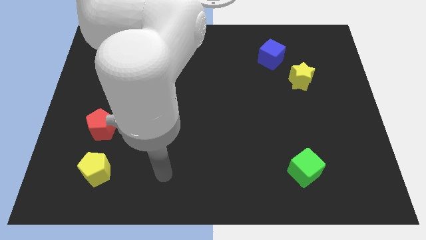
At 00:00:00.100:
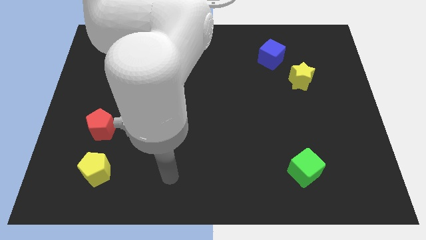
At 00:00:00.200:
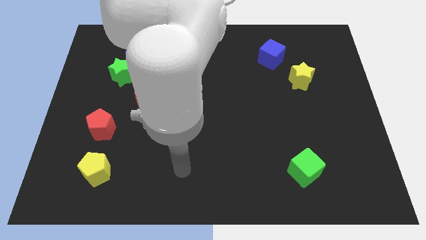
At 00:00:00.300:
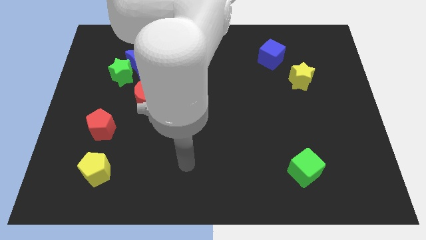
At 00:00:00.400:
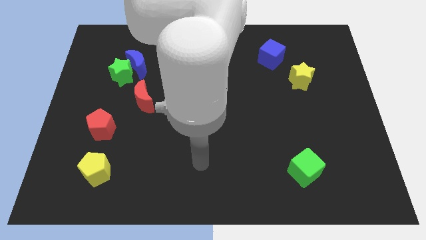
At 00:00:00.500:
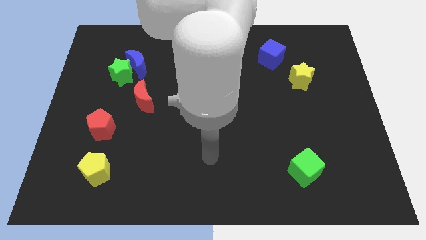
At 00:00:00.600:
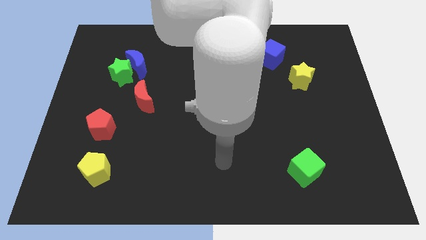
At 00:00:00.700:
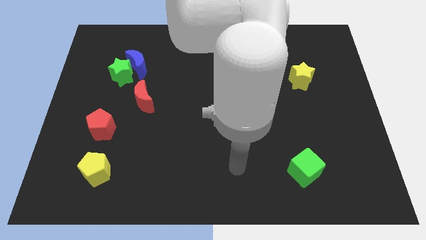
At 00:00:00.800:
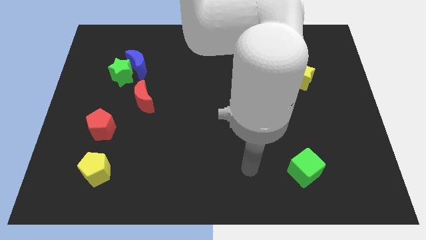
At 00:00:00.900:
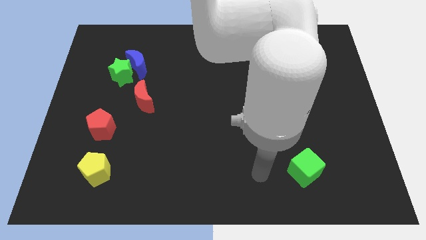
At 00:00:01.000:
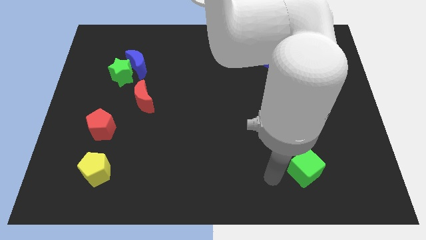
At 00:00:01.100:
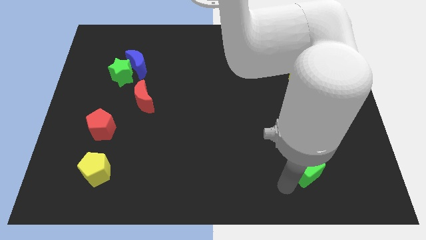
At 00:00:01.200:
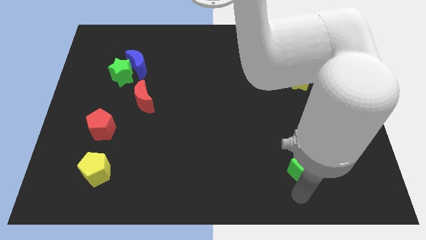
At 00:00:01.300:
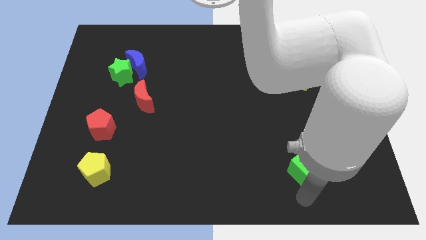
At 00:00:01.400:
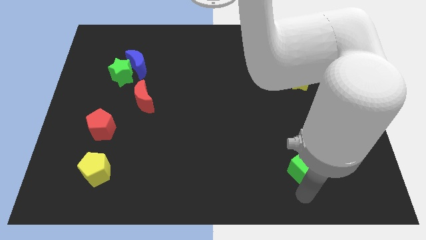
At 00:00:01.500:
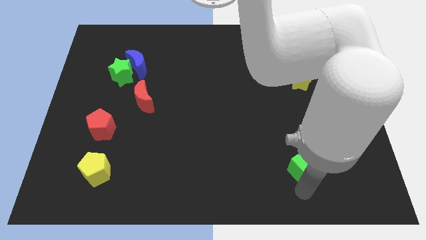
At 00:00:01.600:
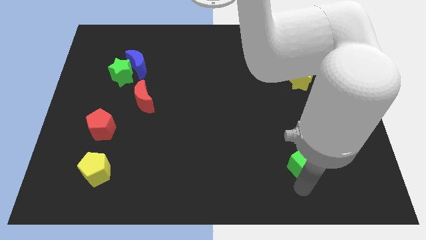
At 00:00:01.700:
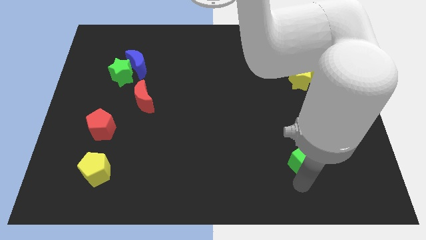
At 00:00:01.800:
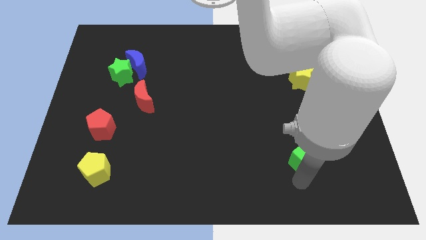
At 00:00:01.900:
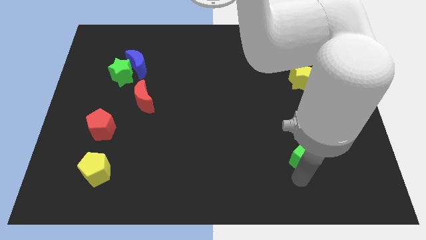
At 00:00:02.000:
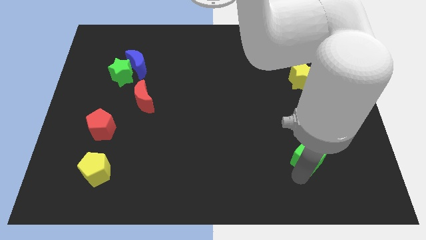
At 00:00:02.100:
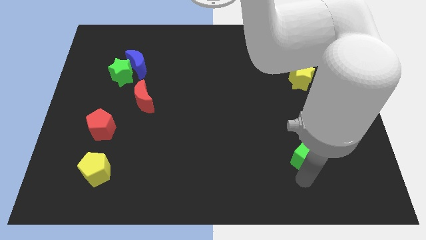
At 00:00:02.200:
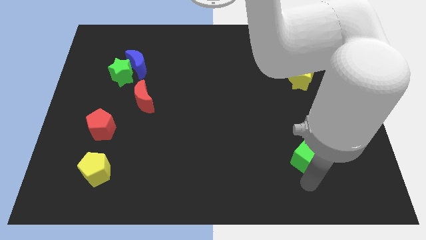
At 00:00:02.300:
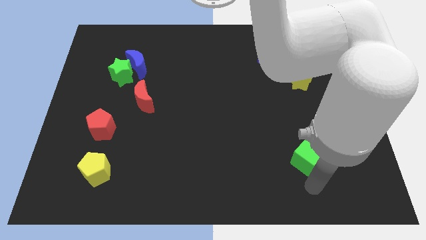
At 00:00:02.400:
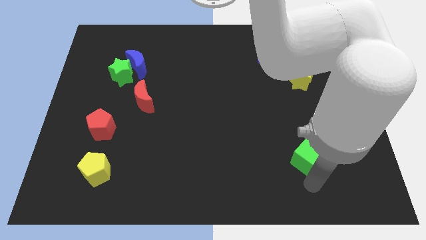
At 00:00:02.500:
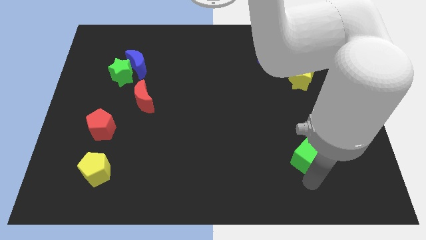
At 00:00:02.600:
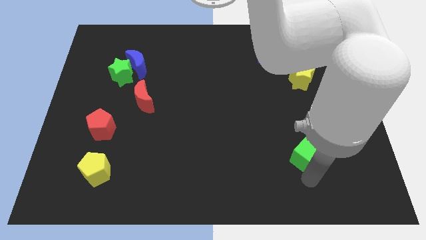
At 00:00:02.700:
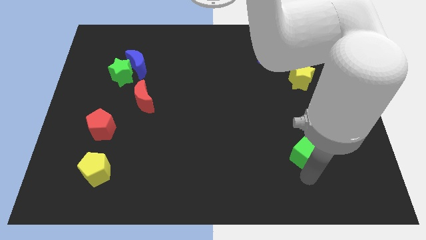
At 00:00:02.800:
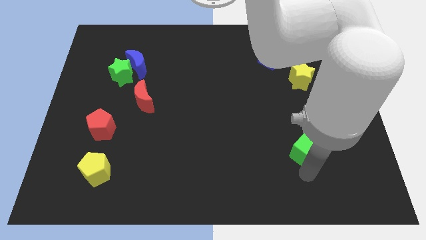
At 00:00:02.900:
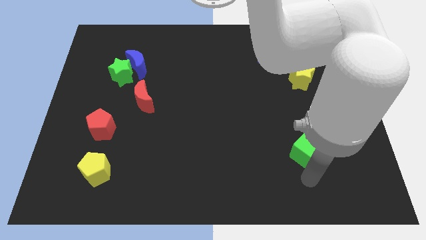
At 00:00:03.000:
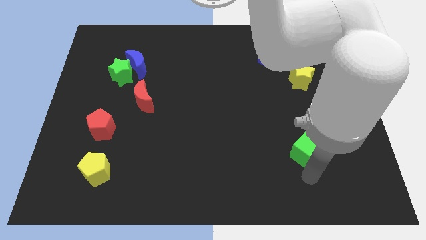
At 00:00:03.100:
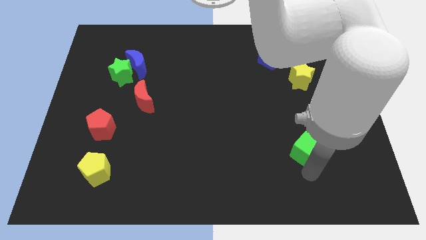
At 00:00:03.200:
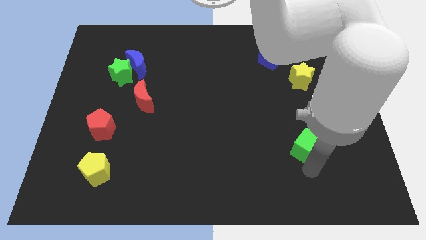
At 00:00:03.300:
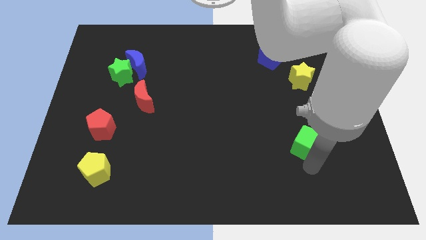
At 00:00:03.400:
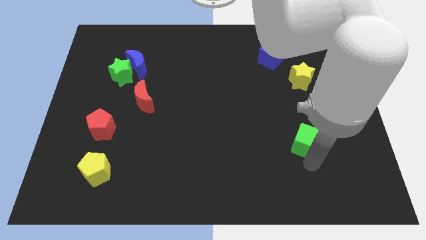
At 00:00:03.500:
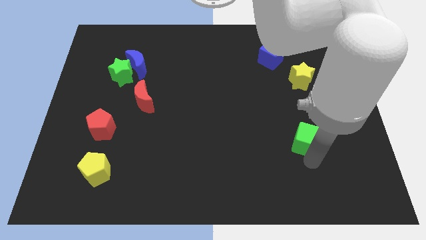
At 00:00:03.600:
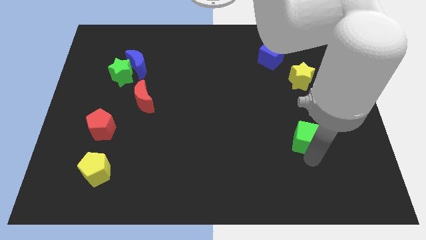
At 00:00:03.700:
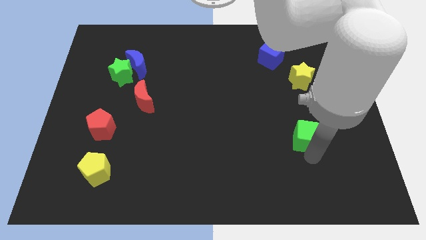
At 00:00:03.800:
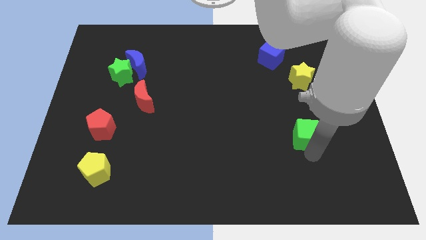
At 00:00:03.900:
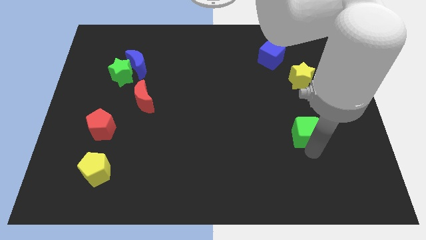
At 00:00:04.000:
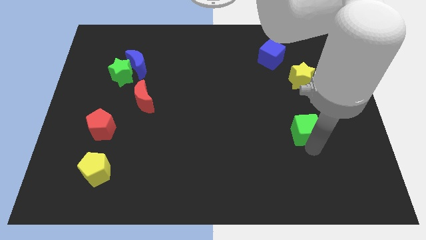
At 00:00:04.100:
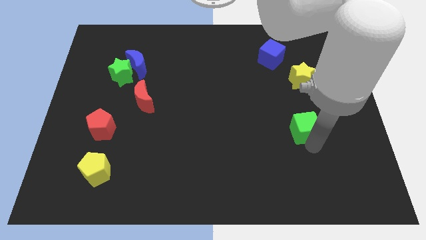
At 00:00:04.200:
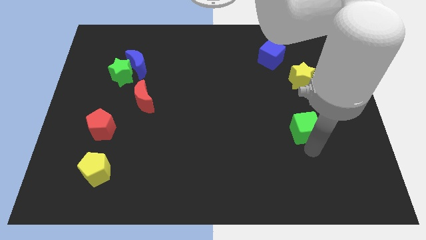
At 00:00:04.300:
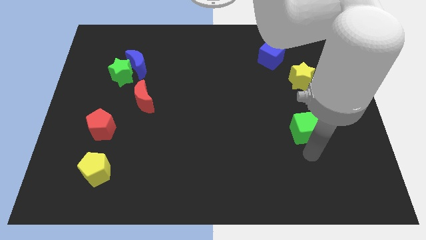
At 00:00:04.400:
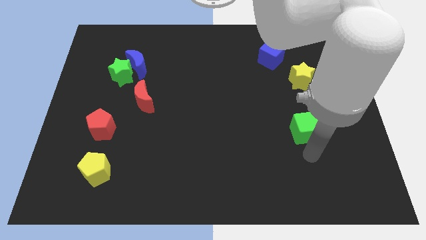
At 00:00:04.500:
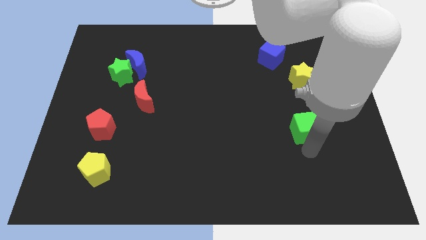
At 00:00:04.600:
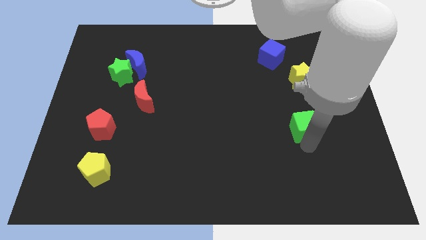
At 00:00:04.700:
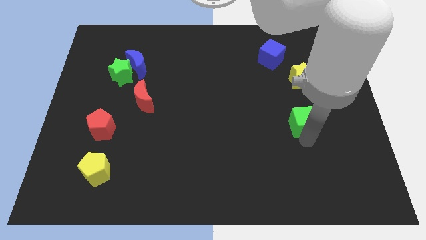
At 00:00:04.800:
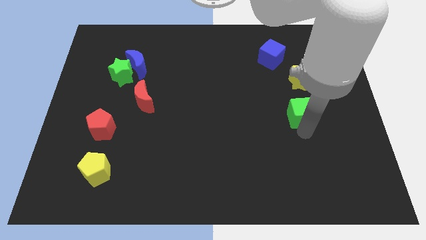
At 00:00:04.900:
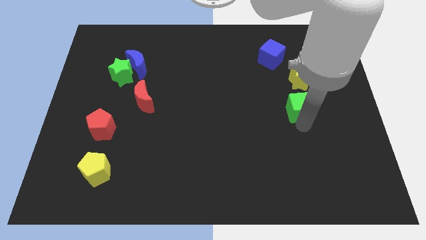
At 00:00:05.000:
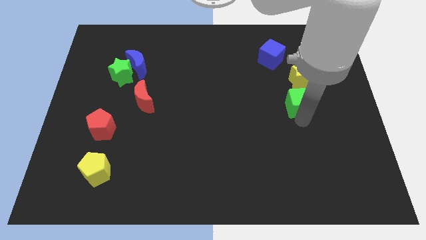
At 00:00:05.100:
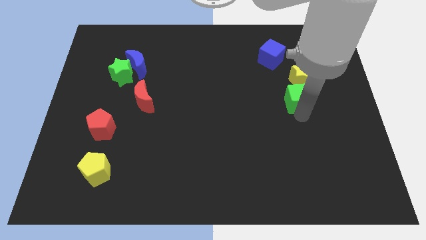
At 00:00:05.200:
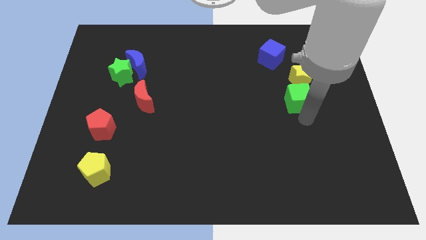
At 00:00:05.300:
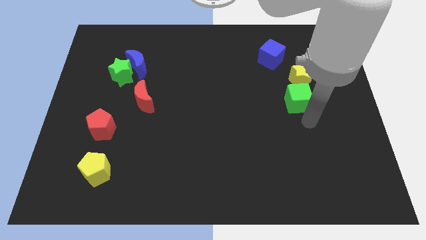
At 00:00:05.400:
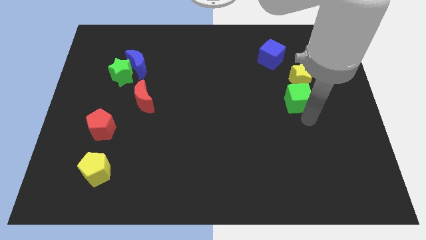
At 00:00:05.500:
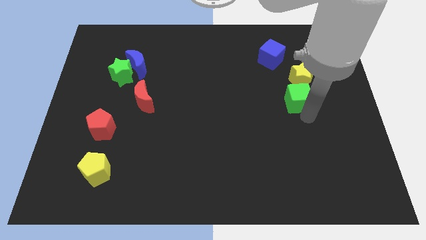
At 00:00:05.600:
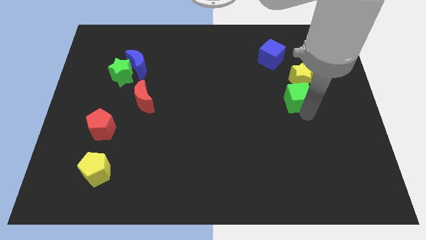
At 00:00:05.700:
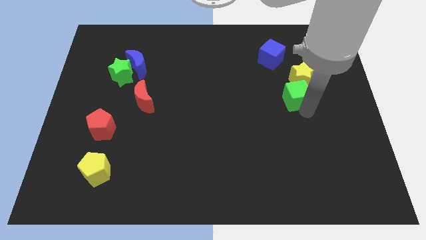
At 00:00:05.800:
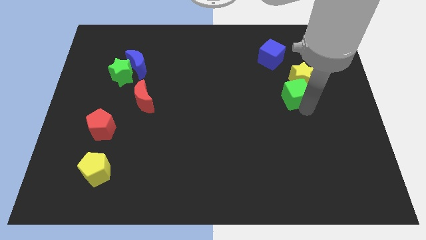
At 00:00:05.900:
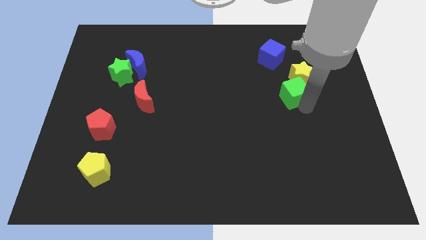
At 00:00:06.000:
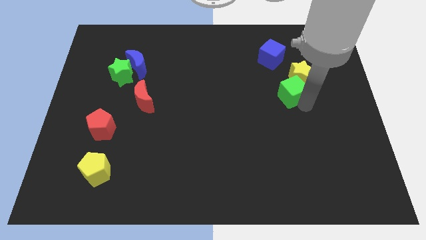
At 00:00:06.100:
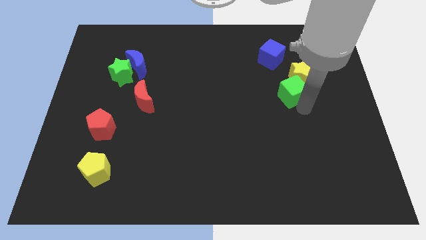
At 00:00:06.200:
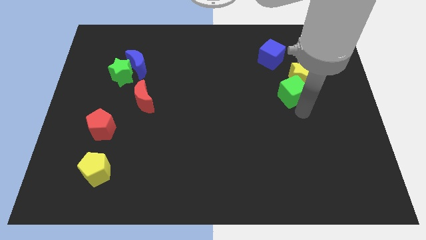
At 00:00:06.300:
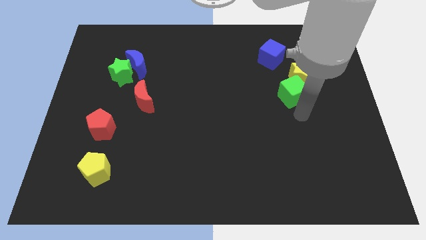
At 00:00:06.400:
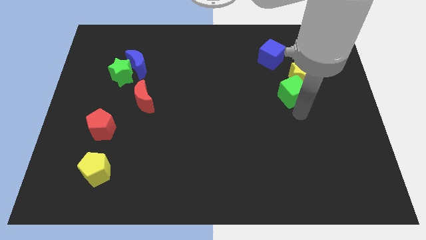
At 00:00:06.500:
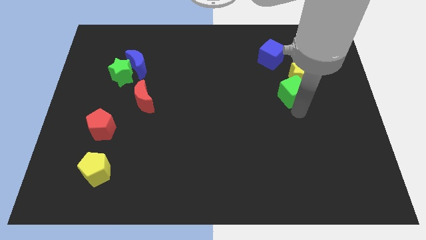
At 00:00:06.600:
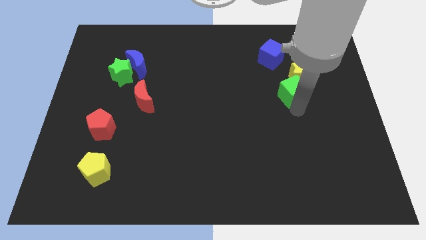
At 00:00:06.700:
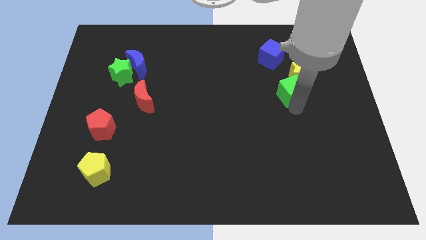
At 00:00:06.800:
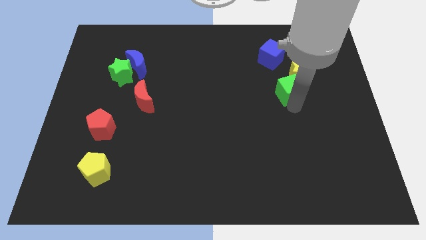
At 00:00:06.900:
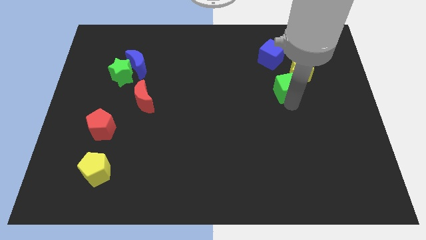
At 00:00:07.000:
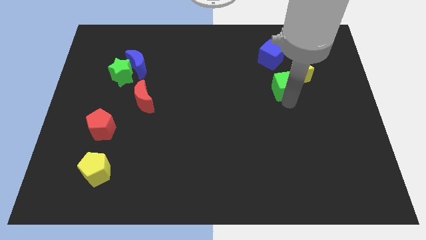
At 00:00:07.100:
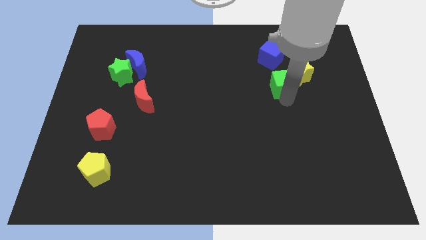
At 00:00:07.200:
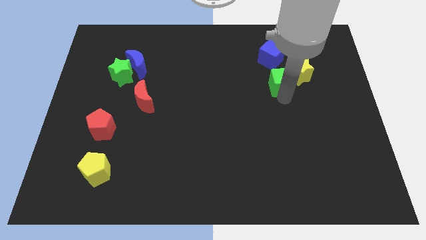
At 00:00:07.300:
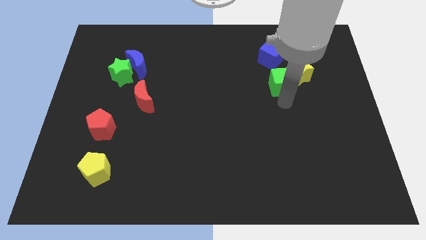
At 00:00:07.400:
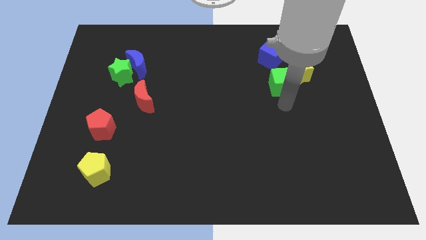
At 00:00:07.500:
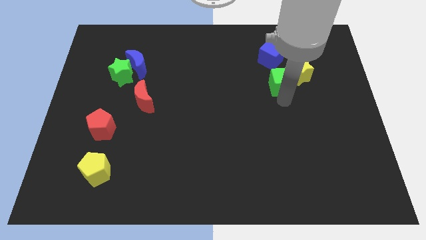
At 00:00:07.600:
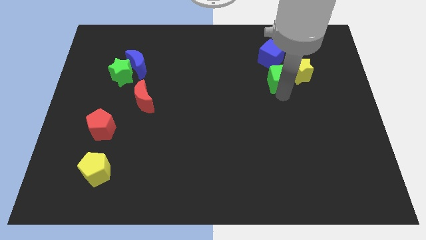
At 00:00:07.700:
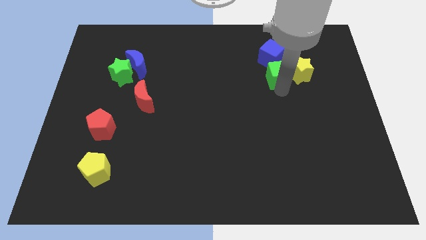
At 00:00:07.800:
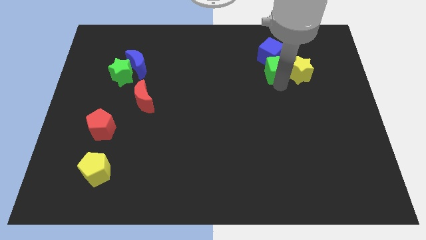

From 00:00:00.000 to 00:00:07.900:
push the green cube to the blue cube
